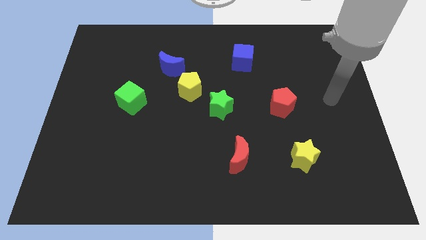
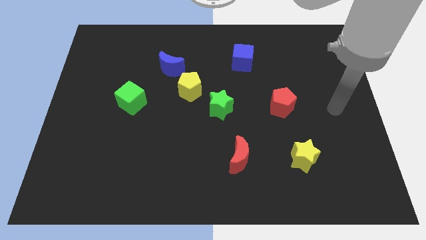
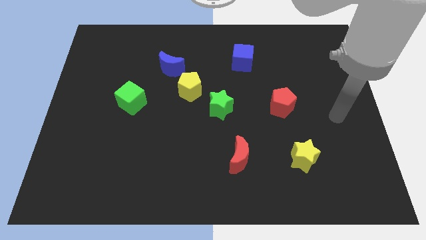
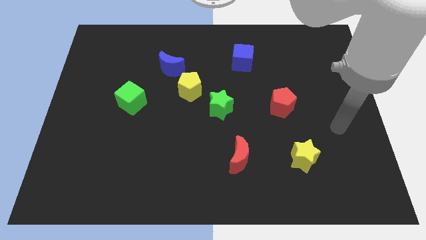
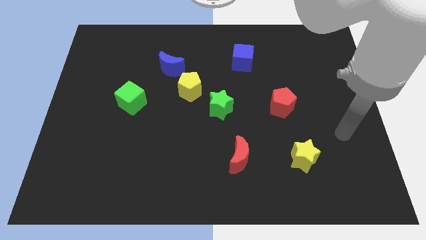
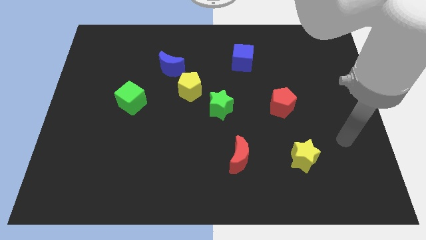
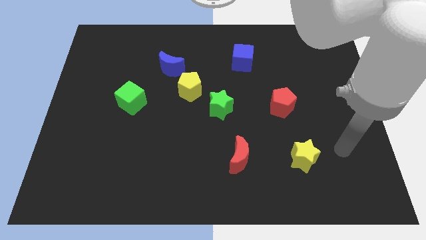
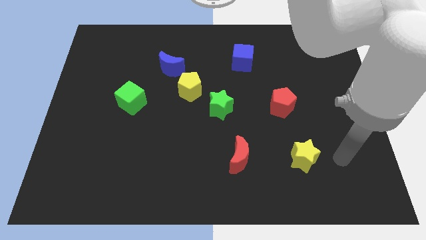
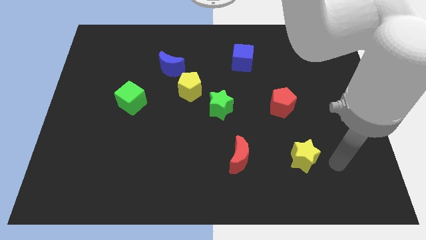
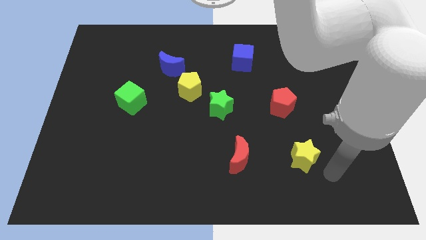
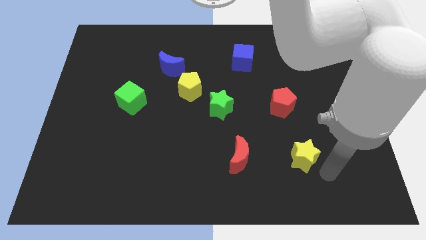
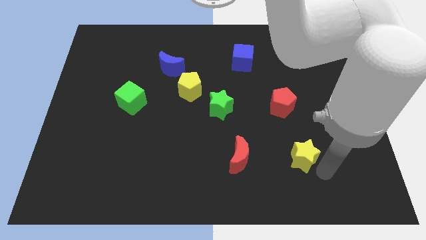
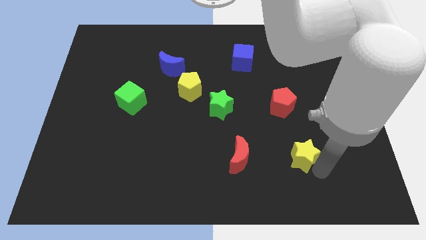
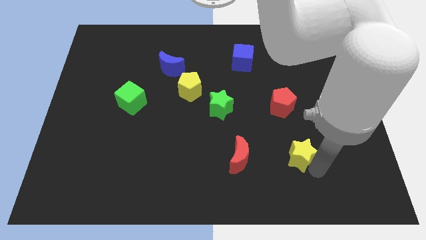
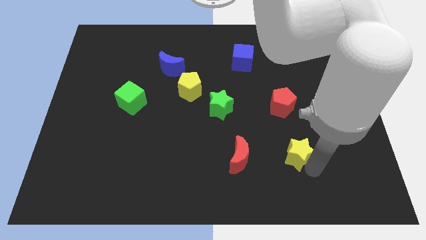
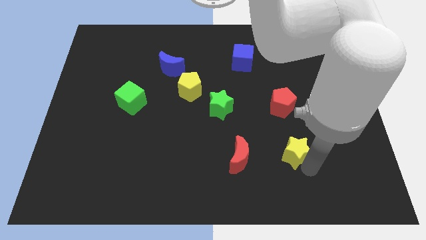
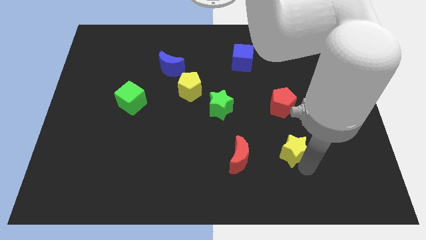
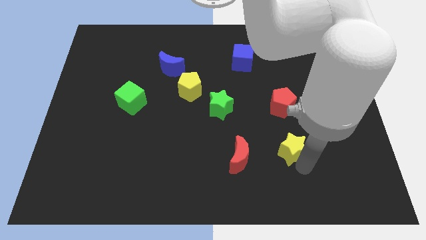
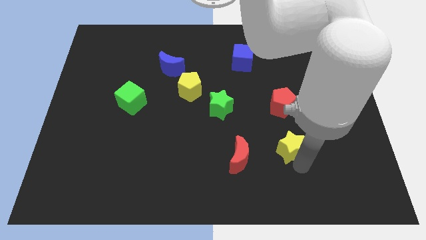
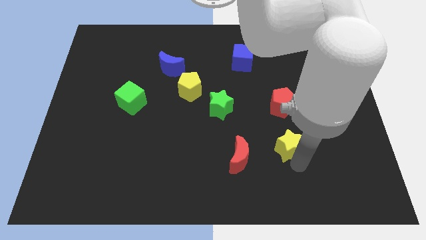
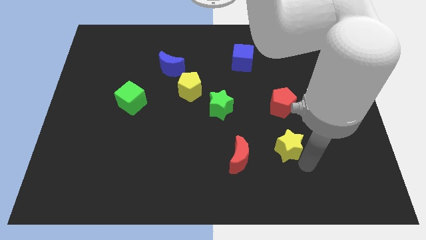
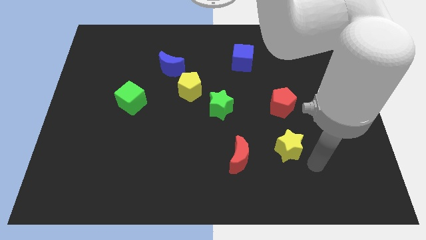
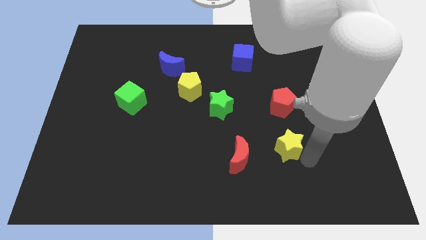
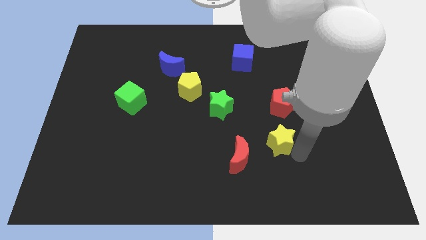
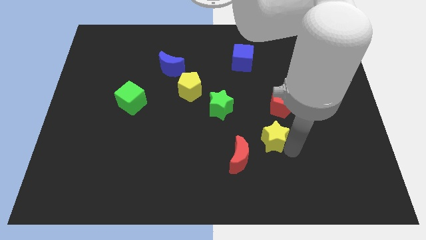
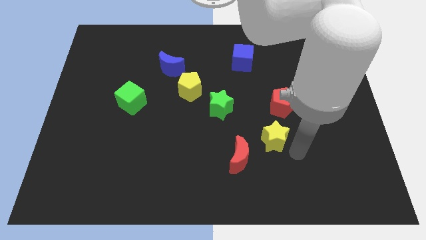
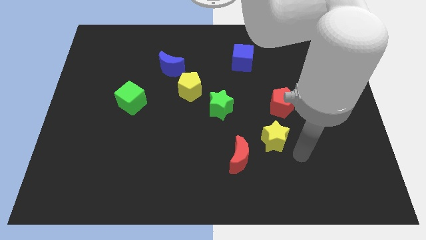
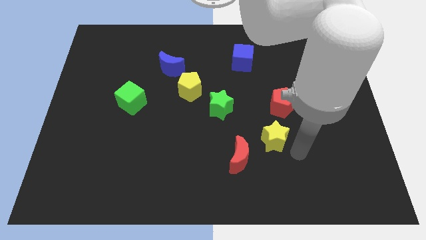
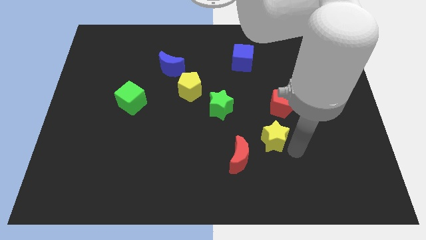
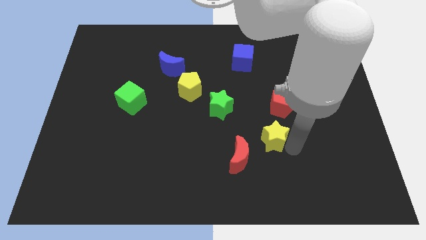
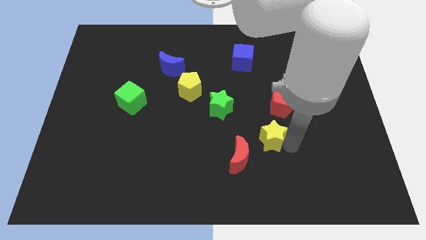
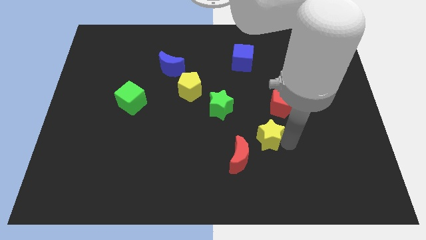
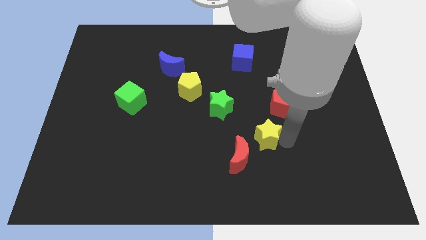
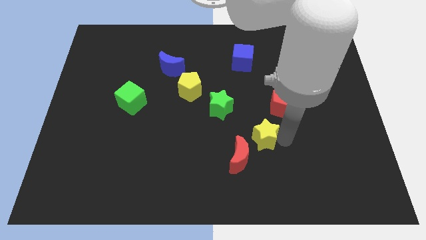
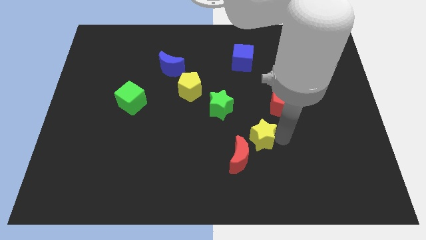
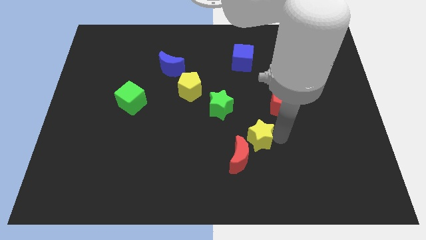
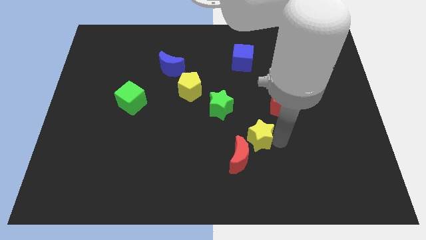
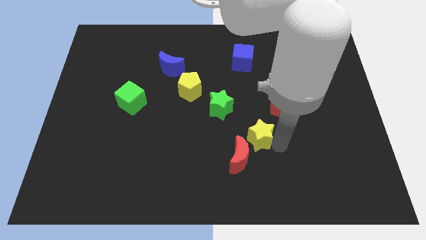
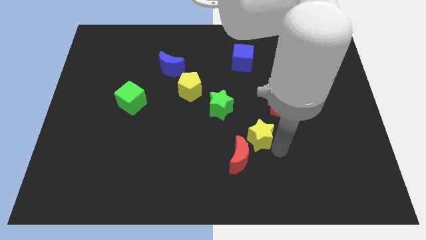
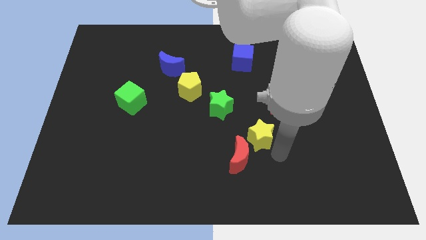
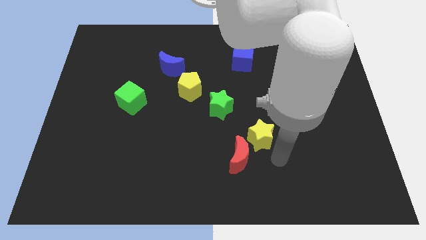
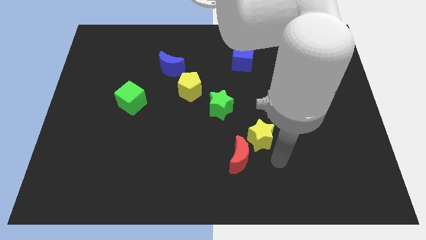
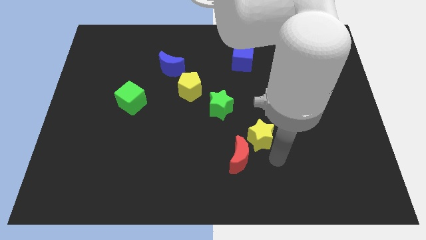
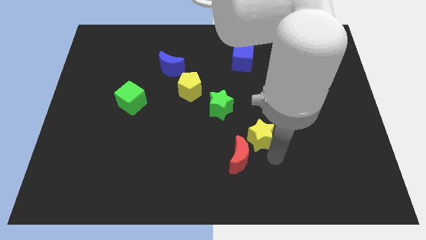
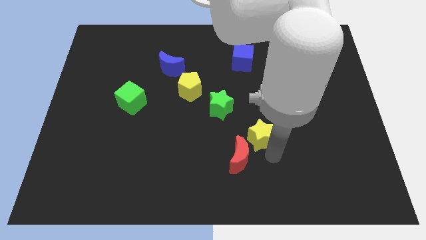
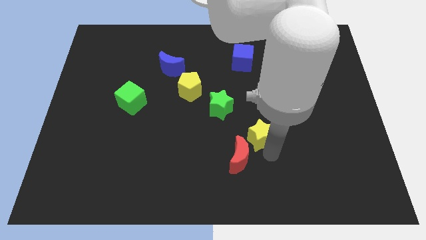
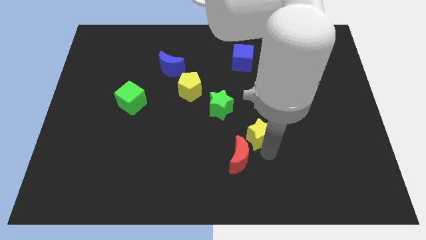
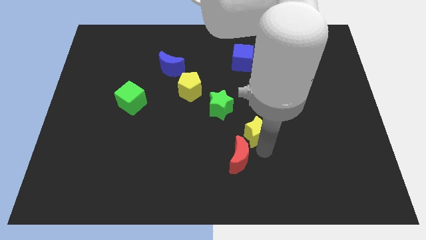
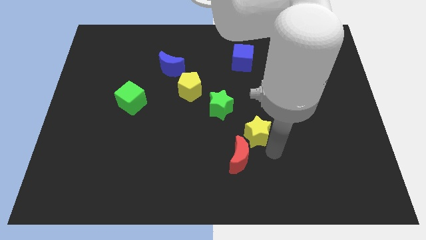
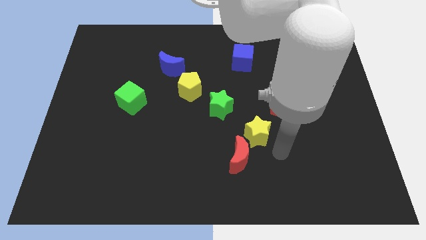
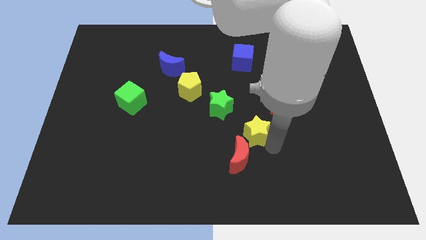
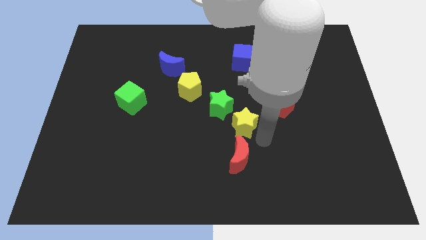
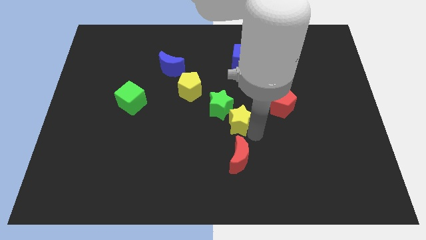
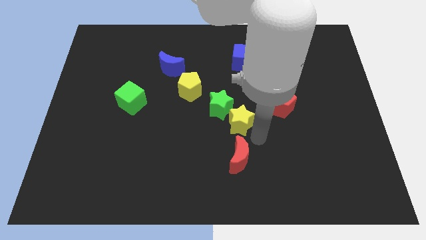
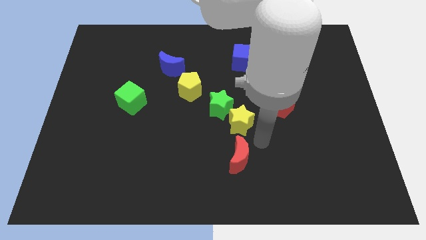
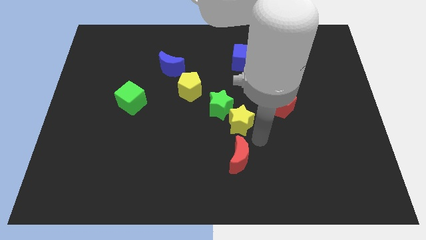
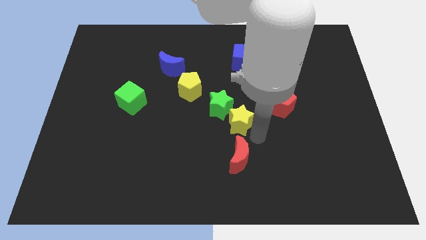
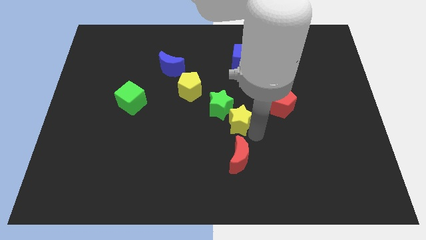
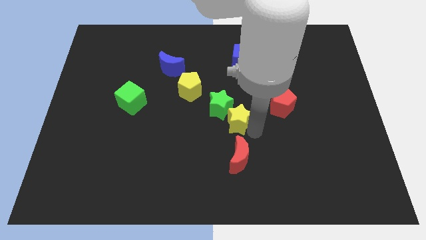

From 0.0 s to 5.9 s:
slide the yellow star towards the green star

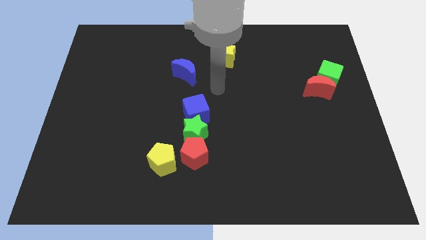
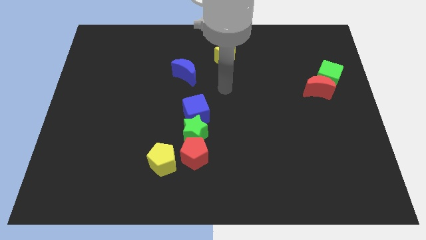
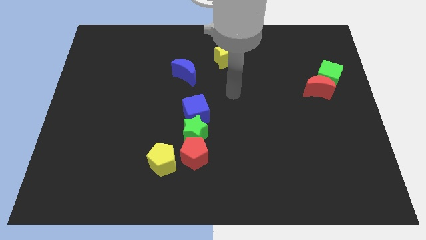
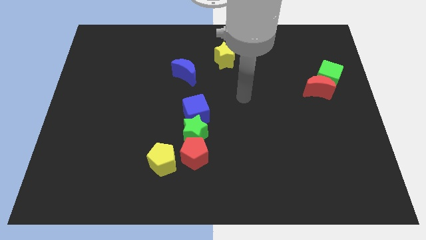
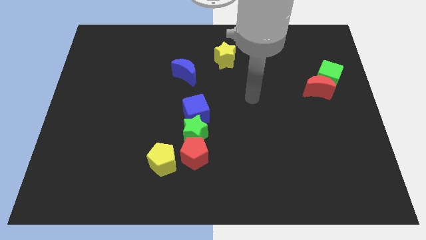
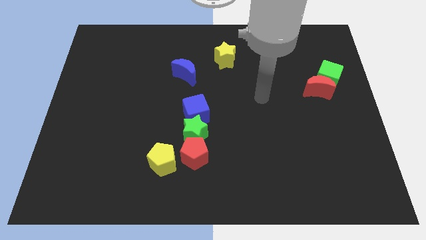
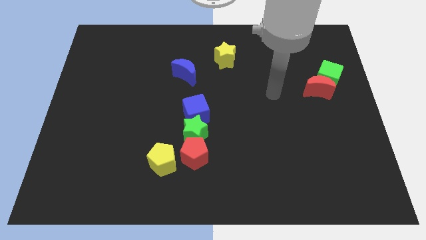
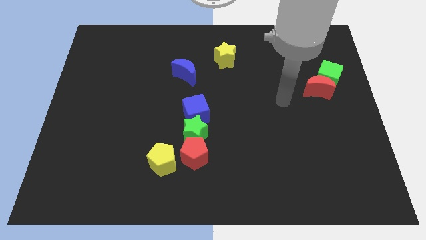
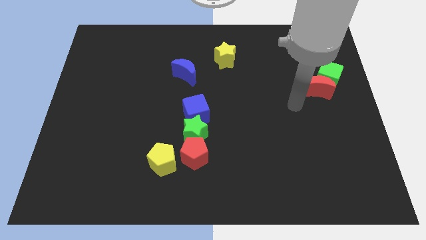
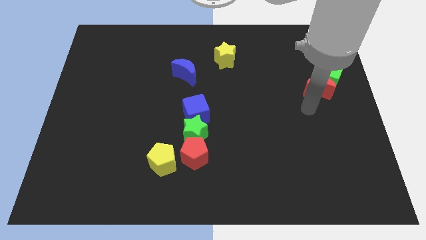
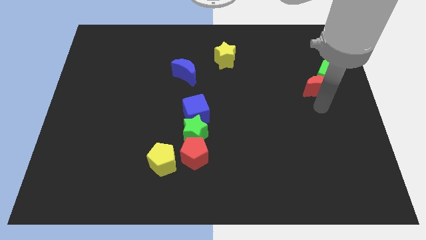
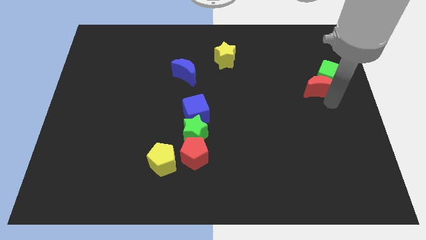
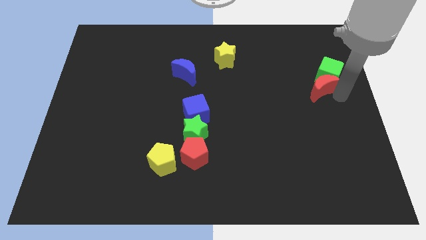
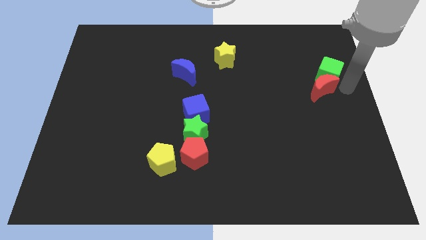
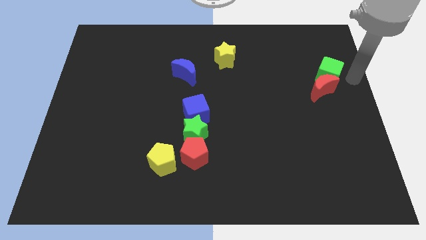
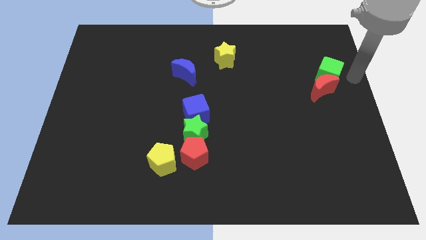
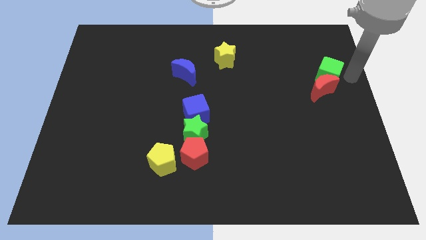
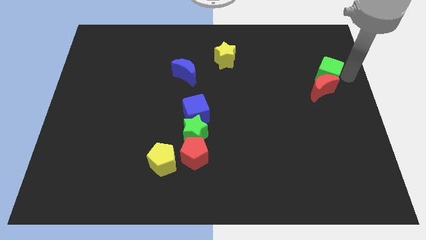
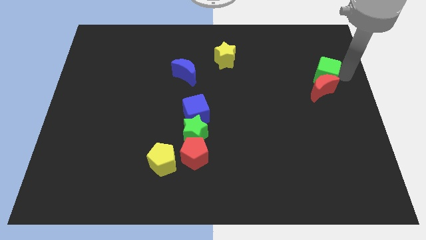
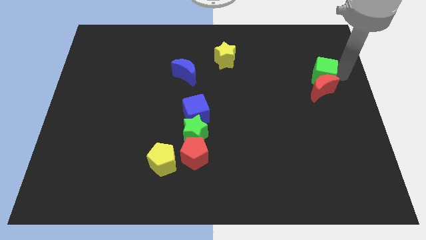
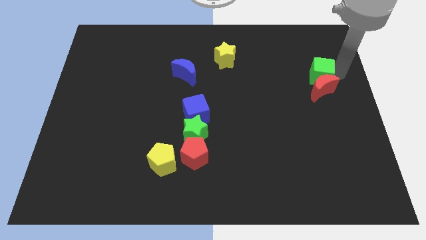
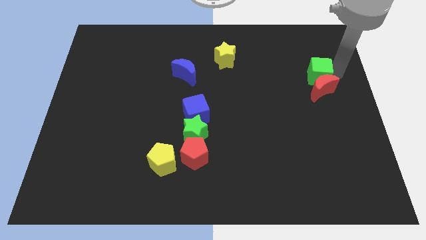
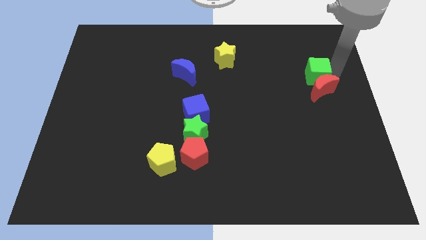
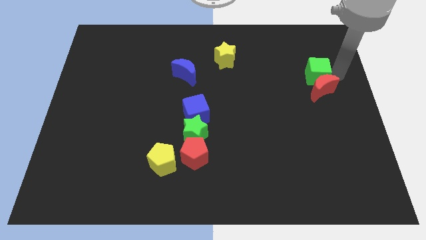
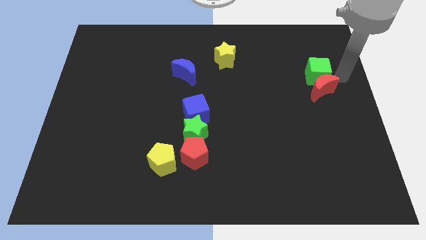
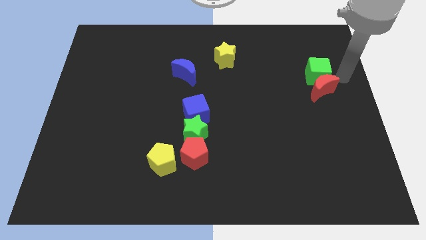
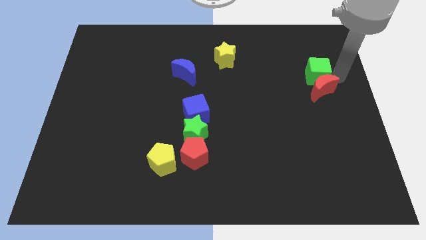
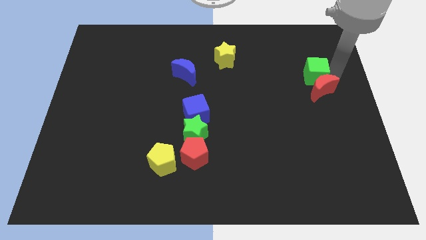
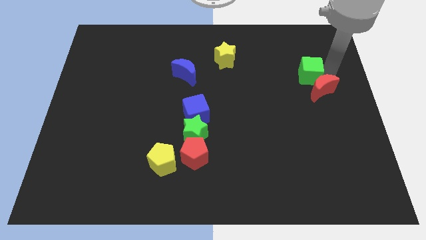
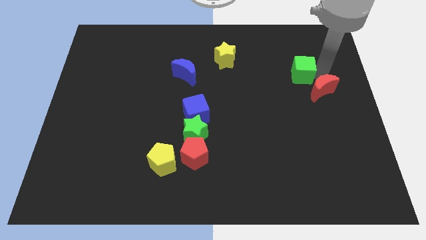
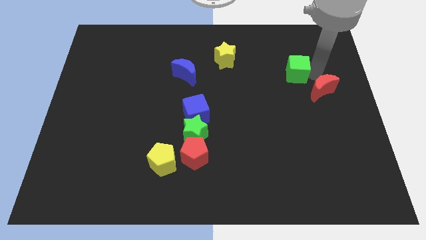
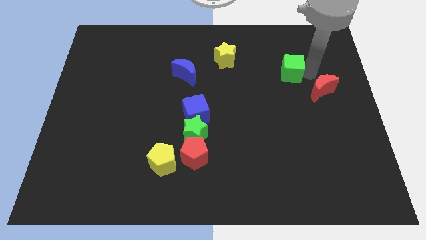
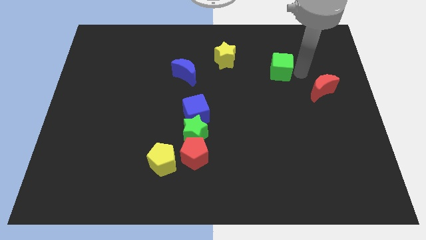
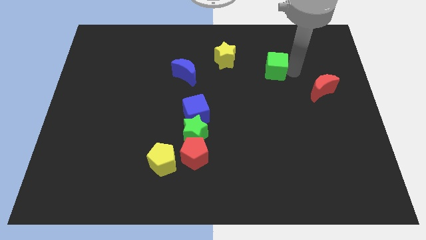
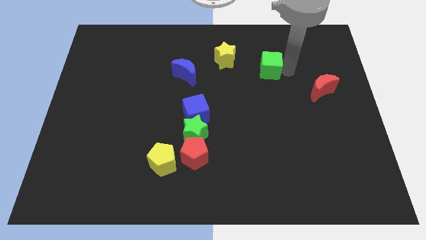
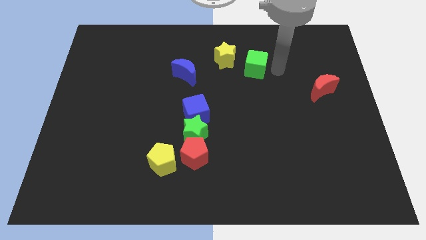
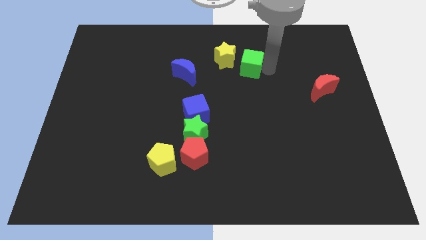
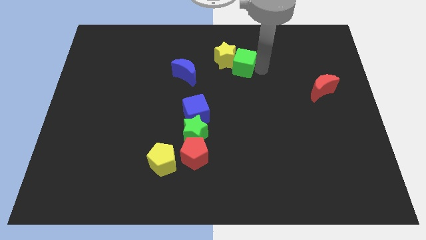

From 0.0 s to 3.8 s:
slide the green cube next to the yellow star
